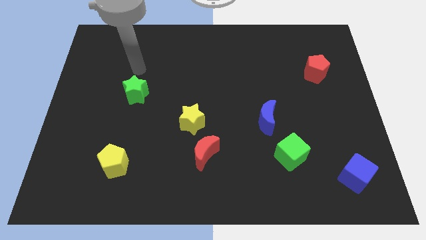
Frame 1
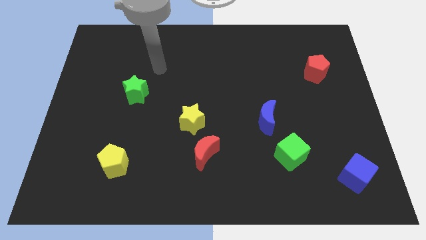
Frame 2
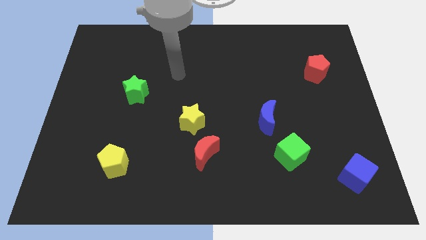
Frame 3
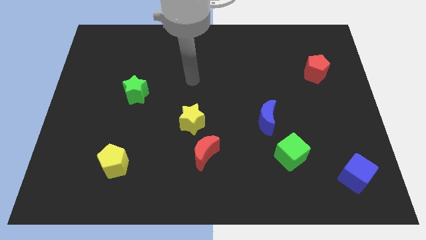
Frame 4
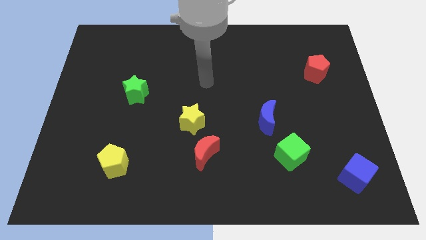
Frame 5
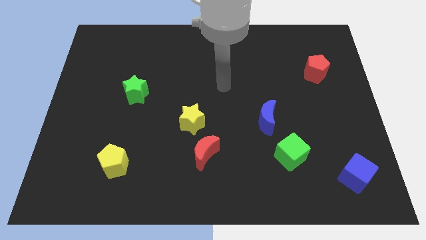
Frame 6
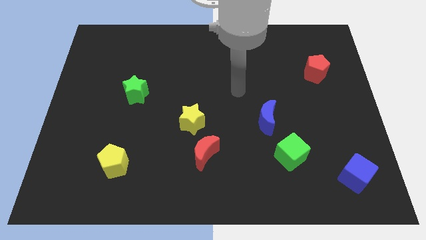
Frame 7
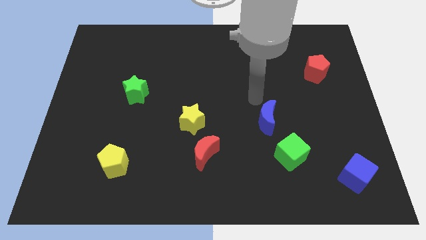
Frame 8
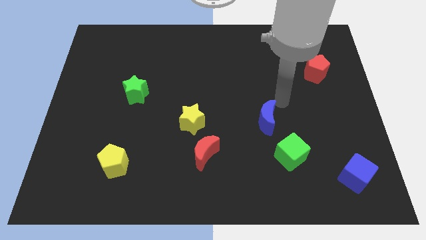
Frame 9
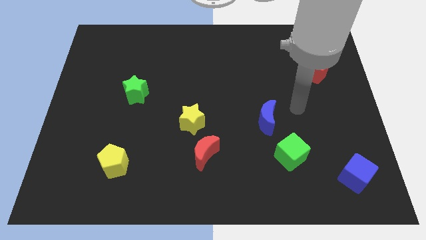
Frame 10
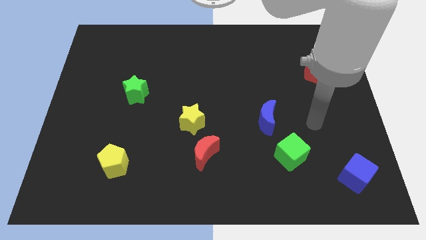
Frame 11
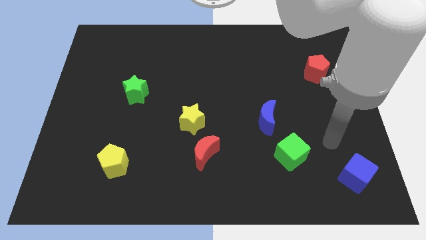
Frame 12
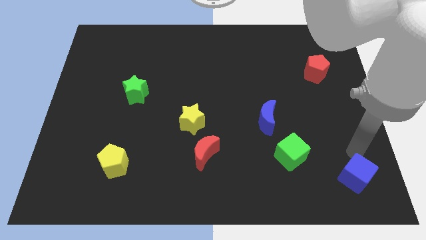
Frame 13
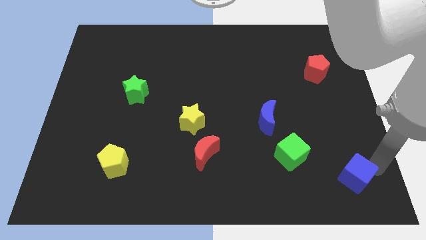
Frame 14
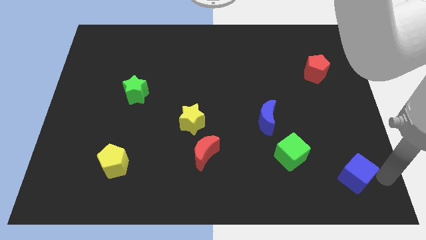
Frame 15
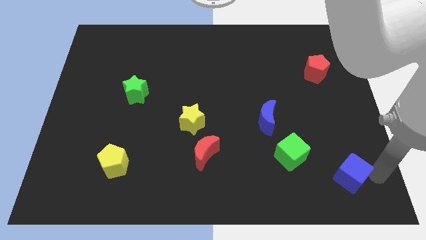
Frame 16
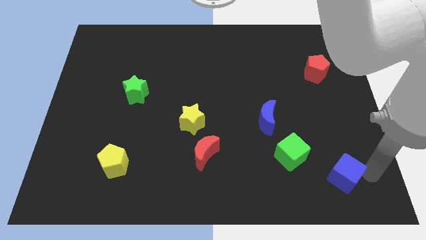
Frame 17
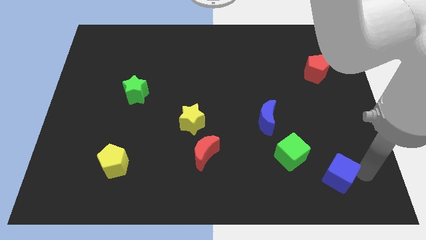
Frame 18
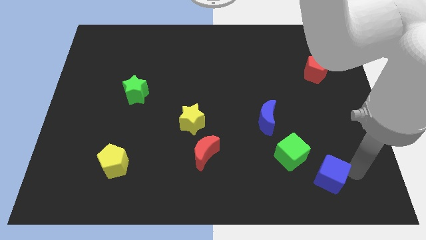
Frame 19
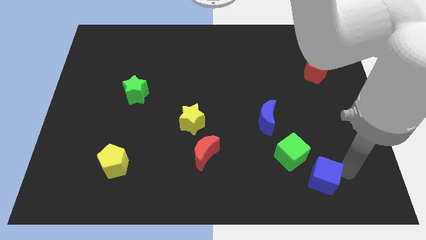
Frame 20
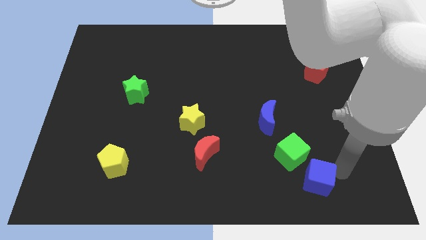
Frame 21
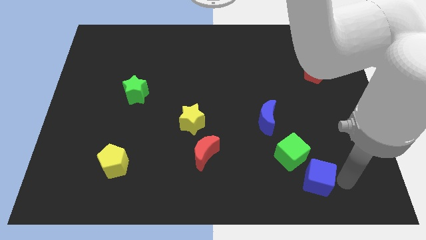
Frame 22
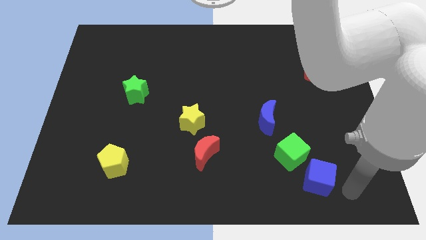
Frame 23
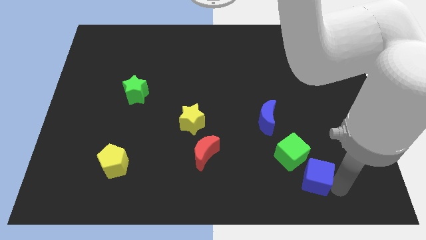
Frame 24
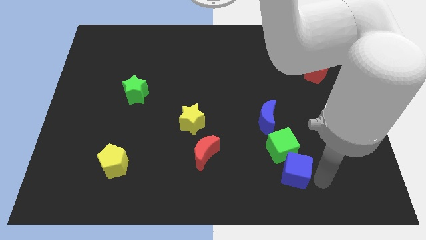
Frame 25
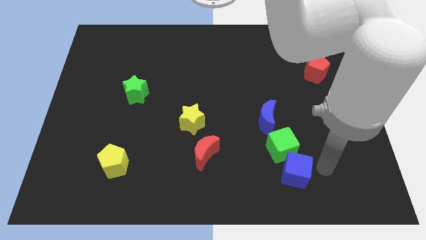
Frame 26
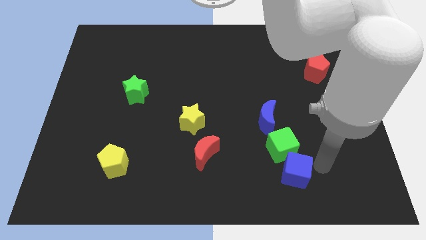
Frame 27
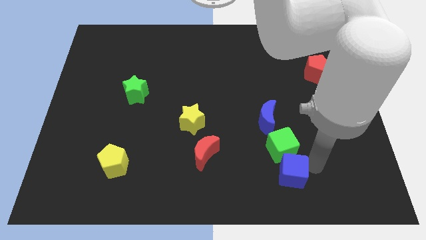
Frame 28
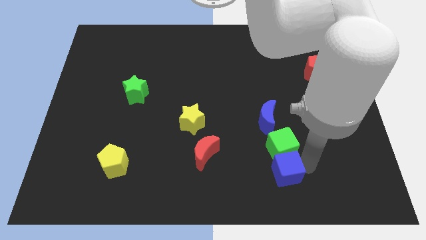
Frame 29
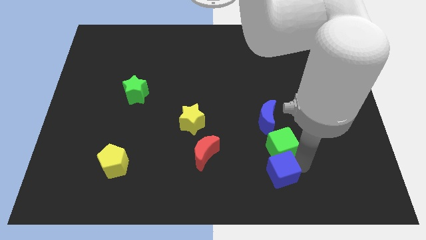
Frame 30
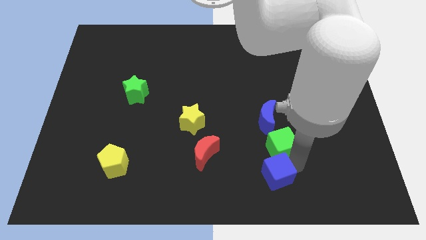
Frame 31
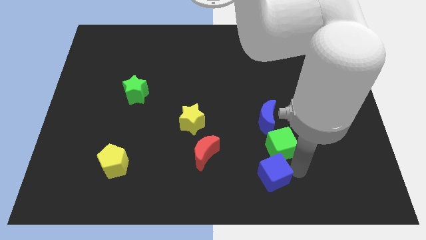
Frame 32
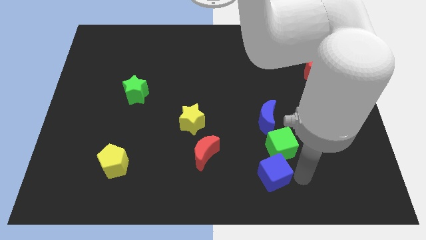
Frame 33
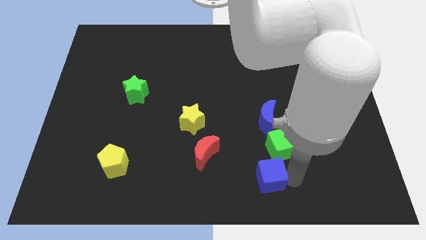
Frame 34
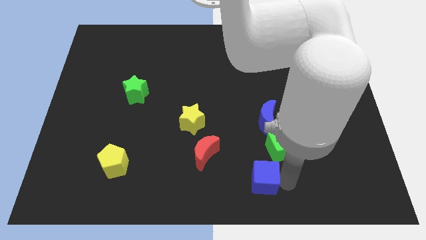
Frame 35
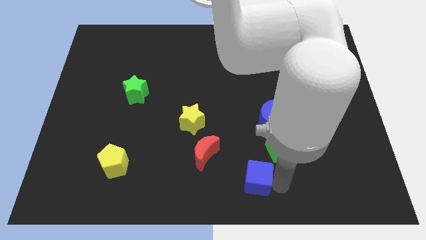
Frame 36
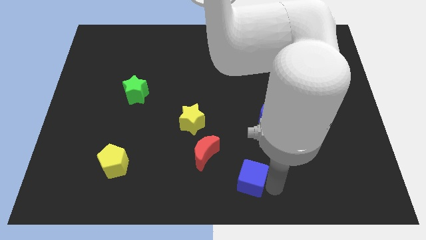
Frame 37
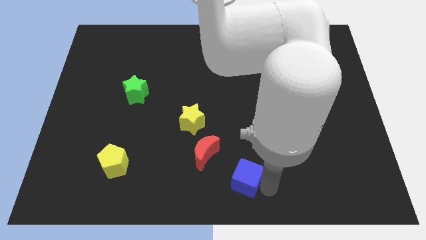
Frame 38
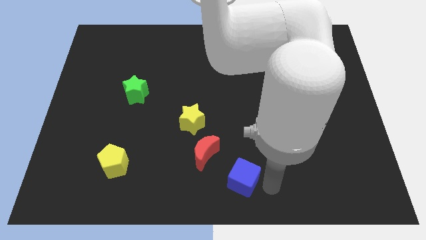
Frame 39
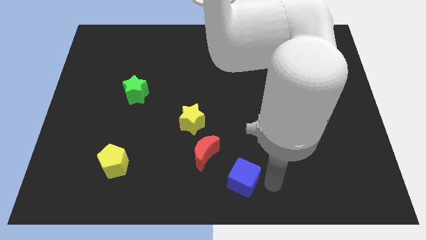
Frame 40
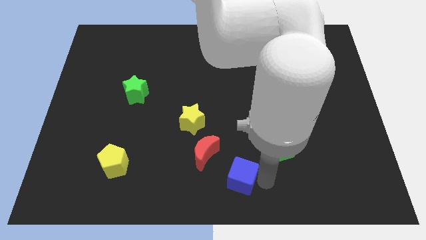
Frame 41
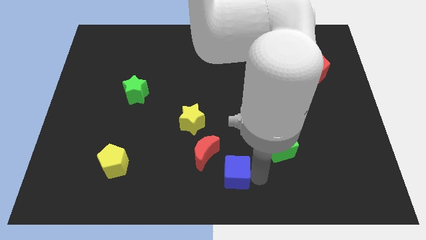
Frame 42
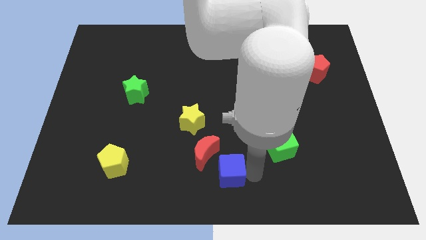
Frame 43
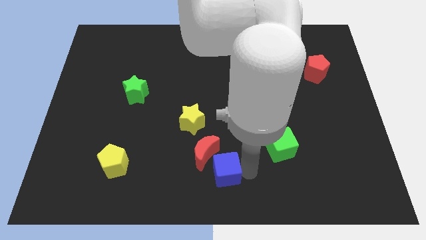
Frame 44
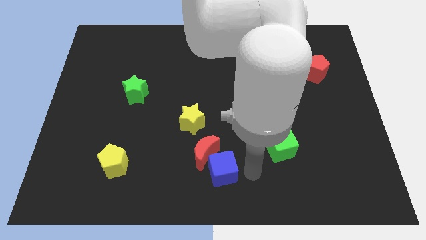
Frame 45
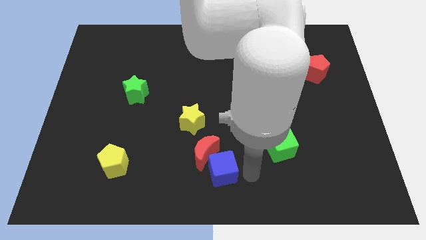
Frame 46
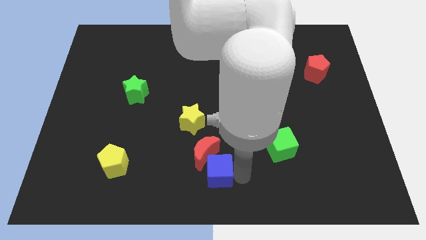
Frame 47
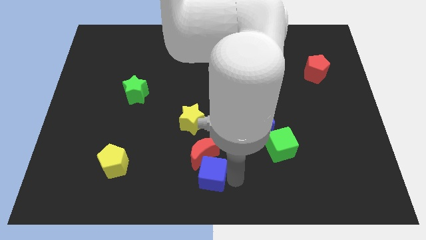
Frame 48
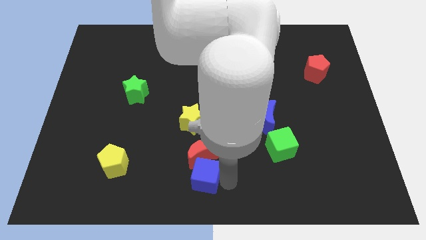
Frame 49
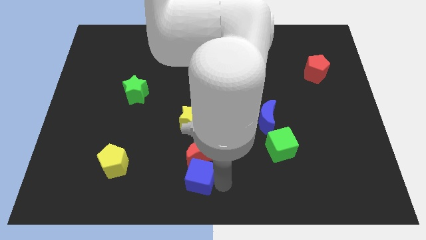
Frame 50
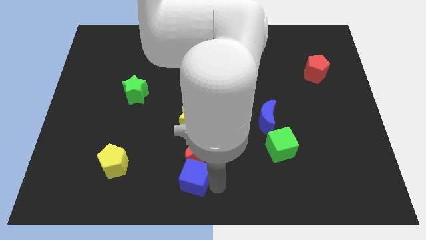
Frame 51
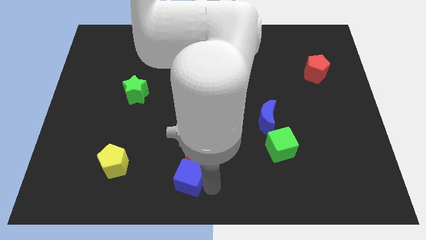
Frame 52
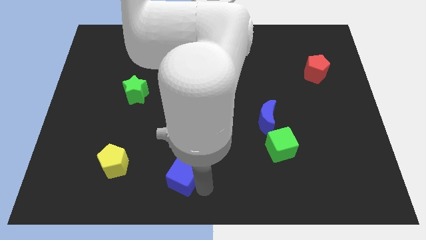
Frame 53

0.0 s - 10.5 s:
put the blue cube to the right side of the yellow pentagon

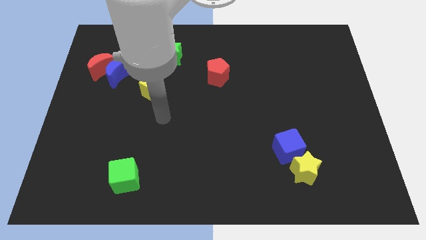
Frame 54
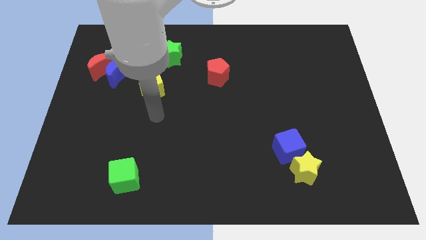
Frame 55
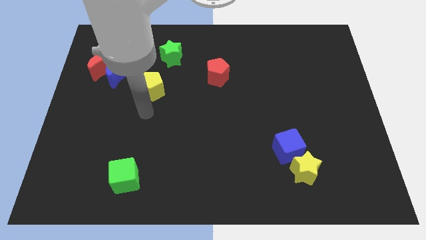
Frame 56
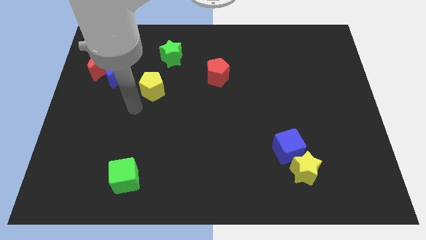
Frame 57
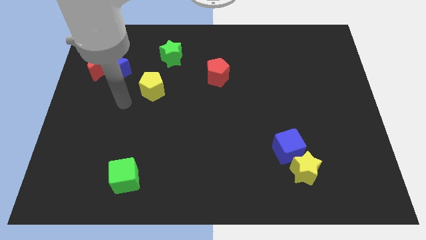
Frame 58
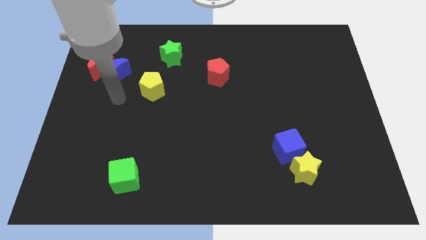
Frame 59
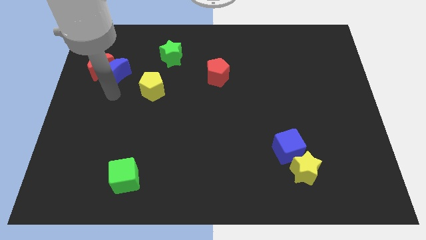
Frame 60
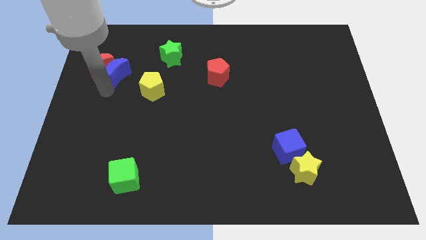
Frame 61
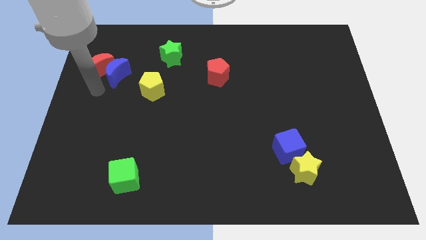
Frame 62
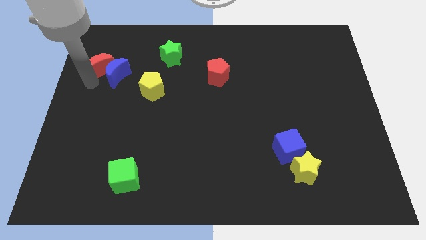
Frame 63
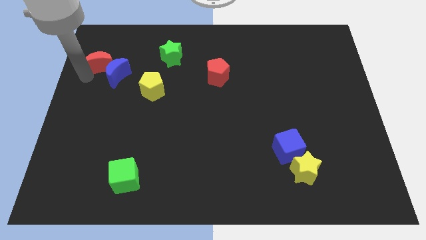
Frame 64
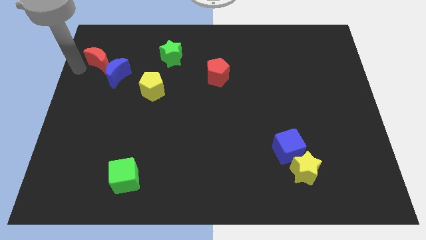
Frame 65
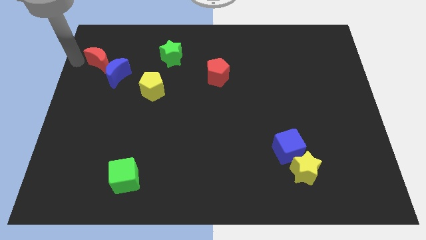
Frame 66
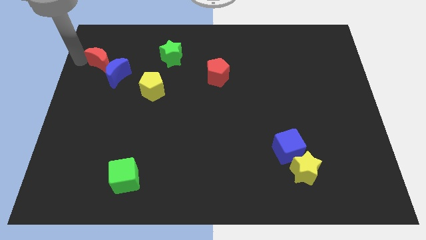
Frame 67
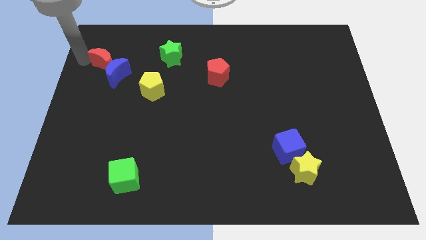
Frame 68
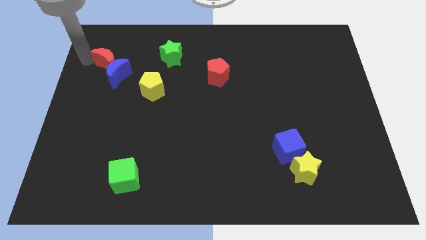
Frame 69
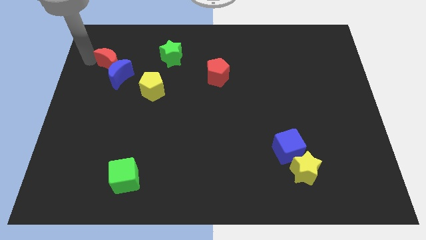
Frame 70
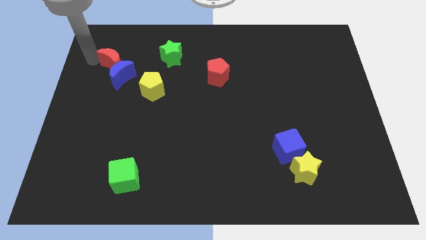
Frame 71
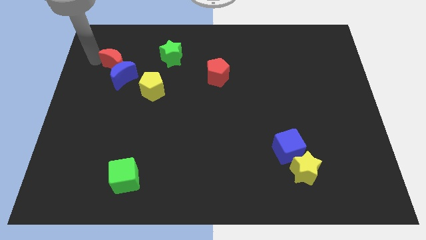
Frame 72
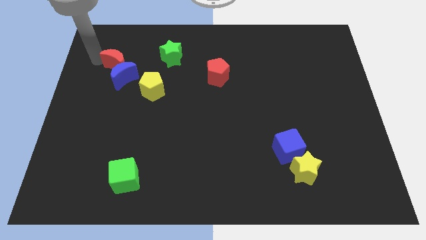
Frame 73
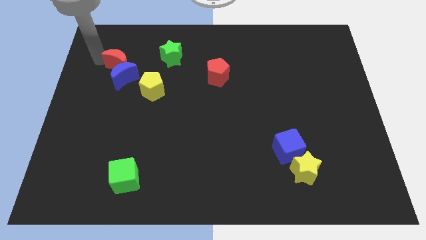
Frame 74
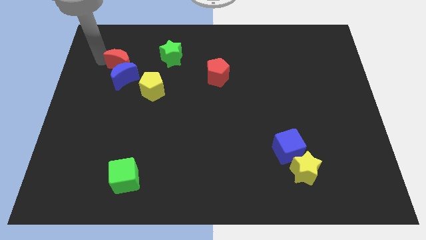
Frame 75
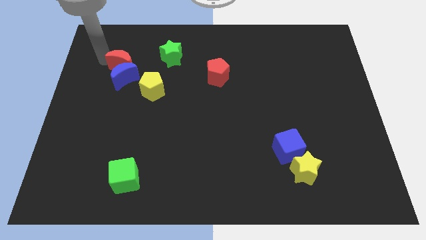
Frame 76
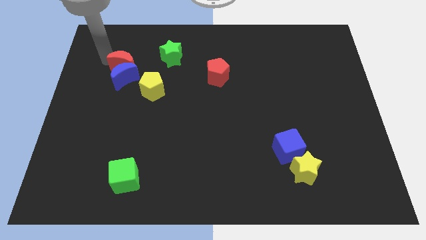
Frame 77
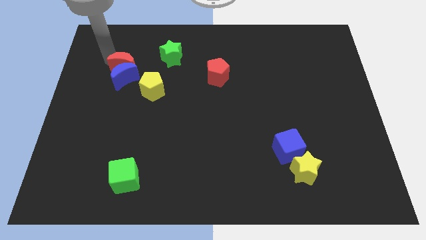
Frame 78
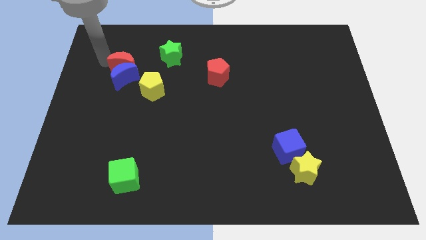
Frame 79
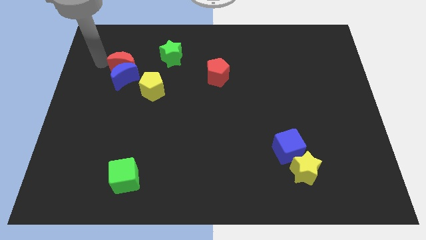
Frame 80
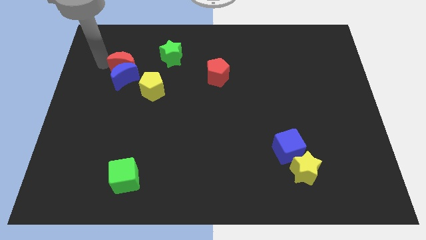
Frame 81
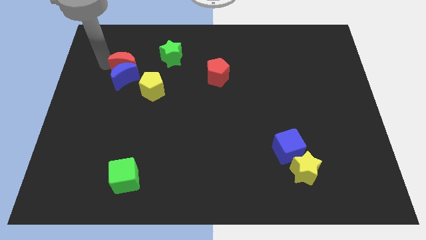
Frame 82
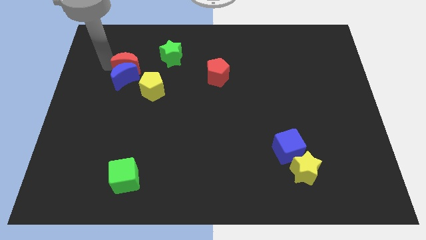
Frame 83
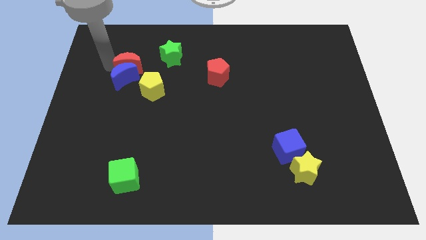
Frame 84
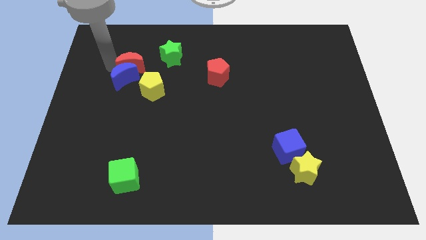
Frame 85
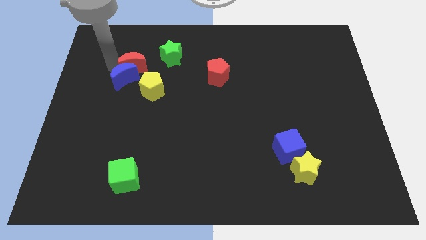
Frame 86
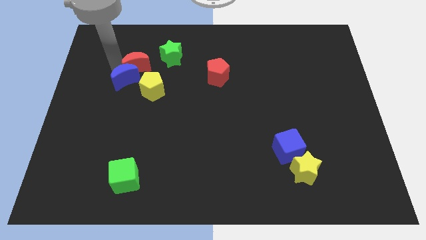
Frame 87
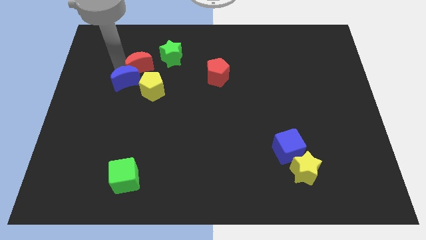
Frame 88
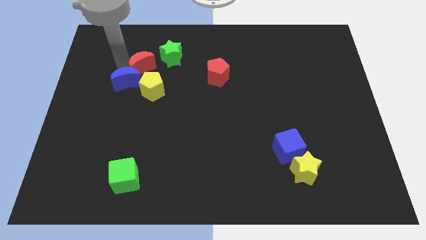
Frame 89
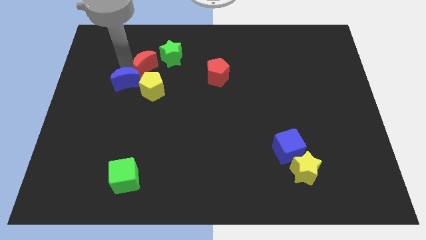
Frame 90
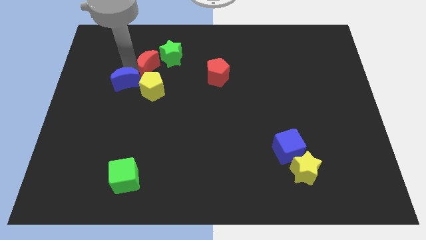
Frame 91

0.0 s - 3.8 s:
slide the red moon right of the blue moon
